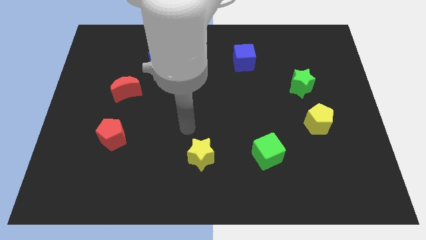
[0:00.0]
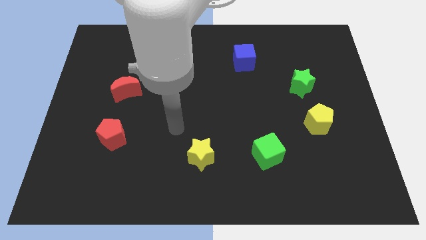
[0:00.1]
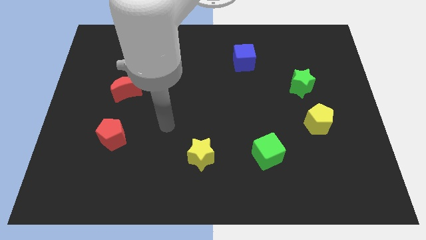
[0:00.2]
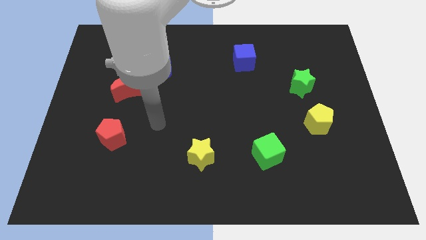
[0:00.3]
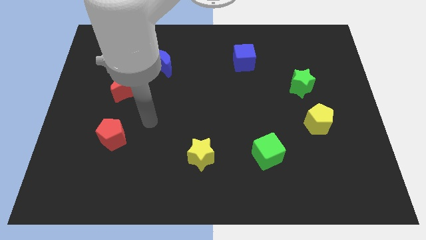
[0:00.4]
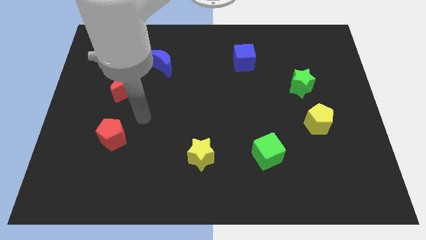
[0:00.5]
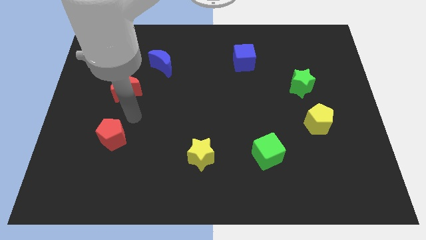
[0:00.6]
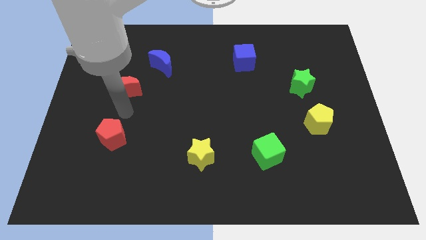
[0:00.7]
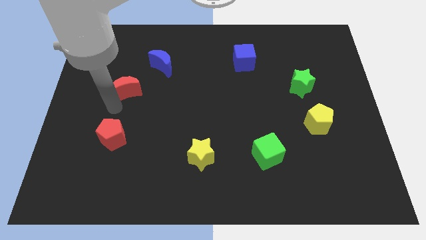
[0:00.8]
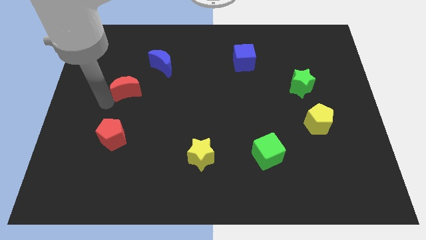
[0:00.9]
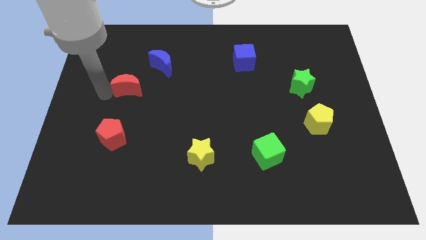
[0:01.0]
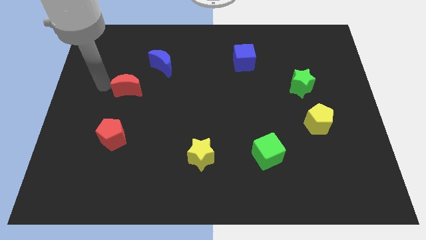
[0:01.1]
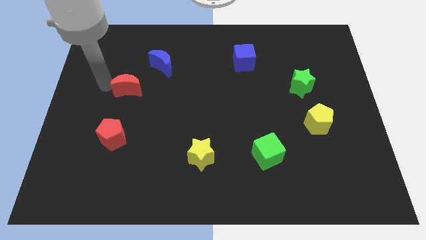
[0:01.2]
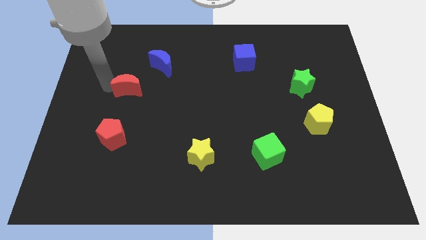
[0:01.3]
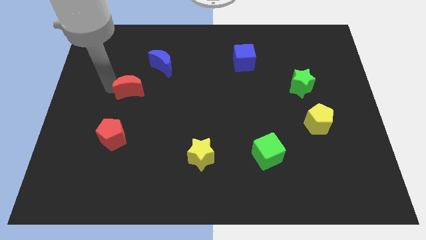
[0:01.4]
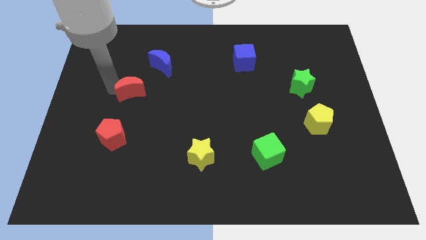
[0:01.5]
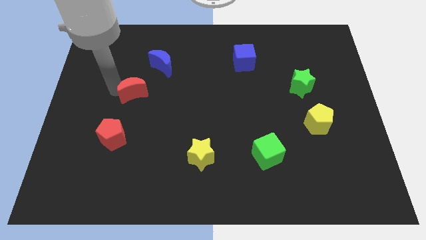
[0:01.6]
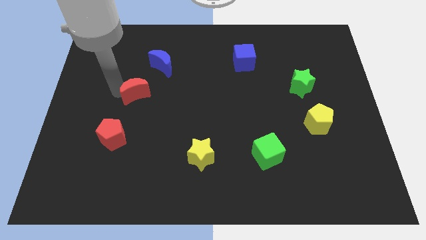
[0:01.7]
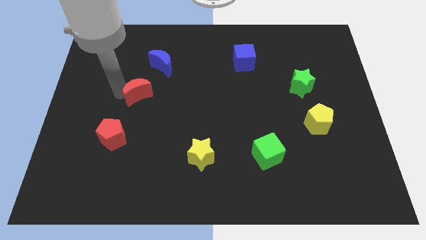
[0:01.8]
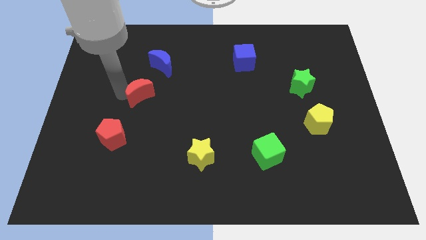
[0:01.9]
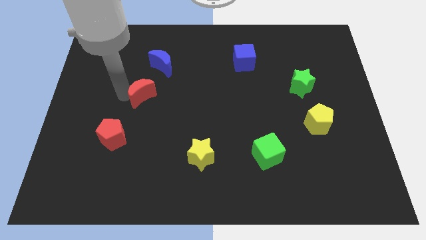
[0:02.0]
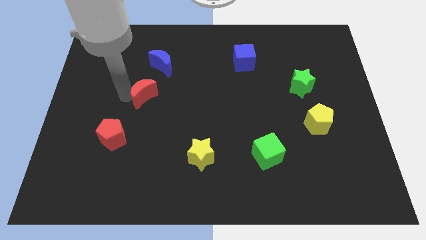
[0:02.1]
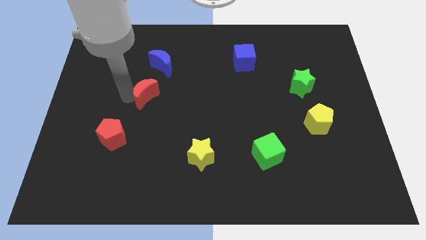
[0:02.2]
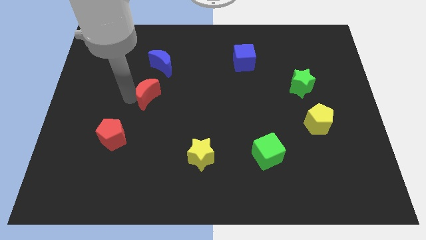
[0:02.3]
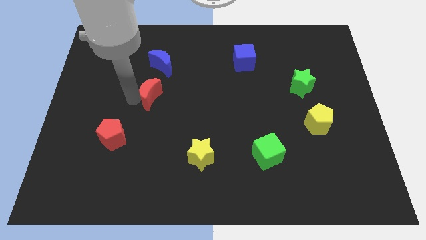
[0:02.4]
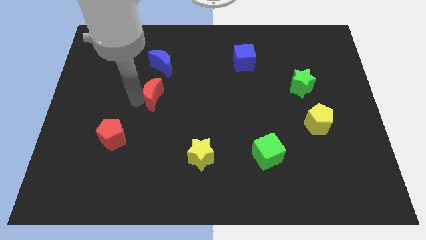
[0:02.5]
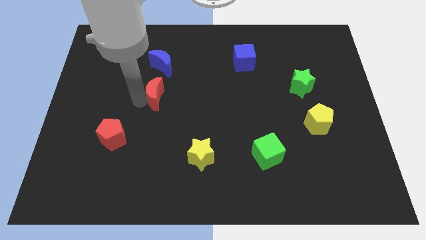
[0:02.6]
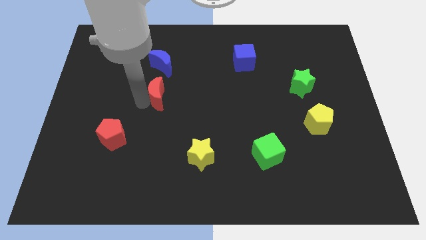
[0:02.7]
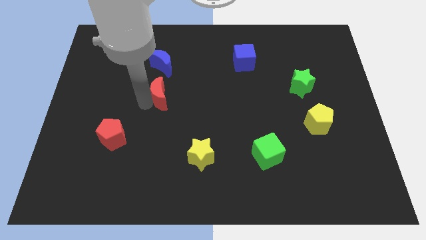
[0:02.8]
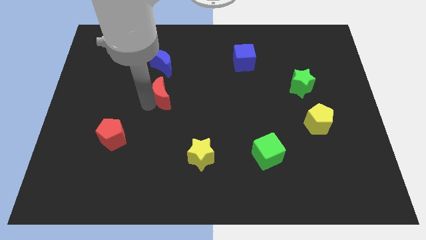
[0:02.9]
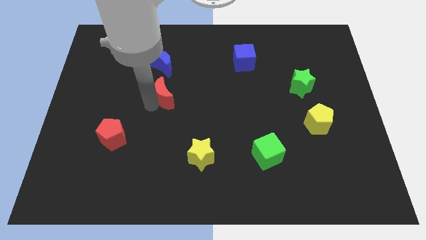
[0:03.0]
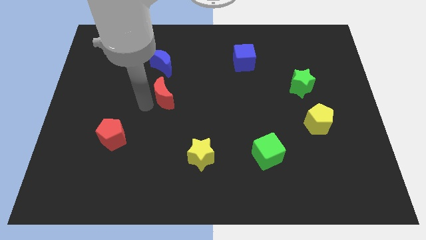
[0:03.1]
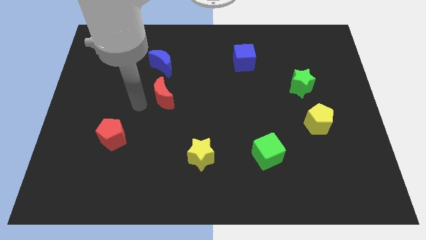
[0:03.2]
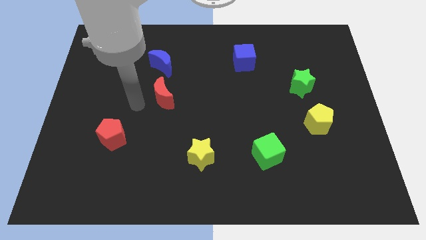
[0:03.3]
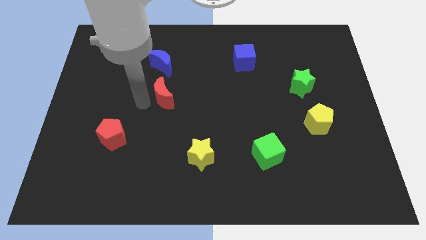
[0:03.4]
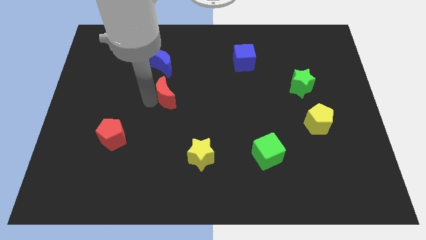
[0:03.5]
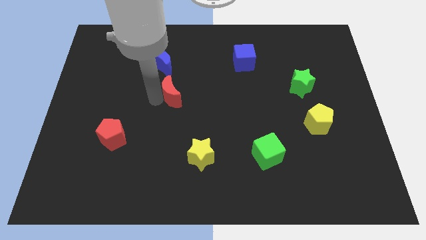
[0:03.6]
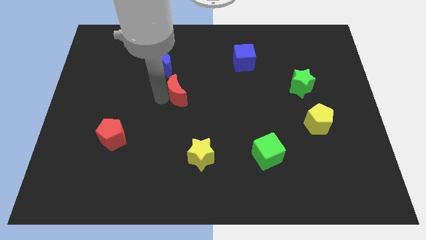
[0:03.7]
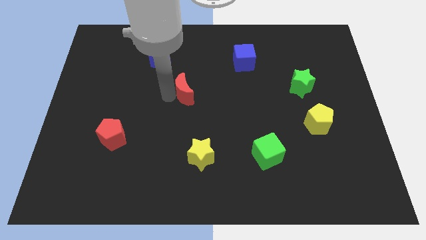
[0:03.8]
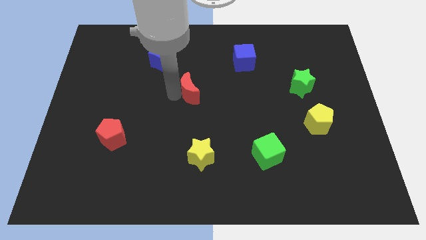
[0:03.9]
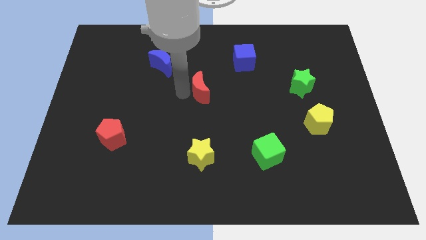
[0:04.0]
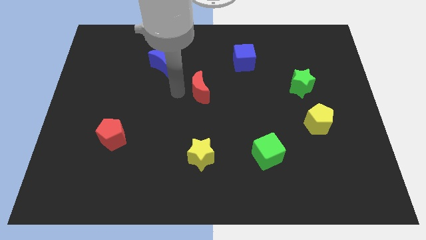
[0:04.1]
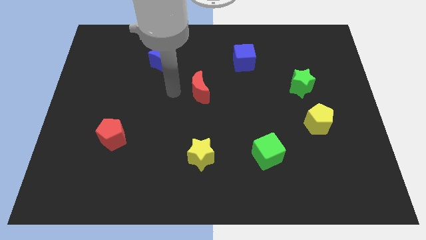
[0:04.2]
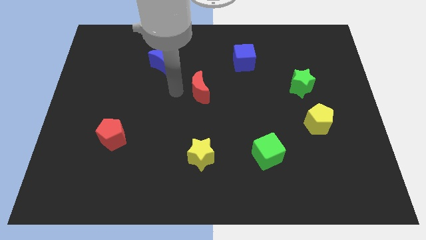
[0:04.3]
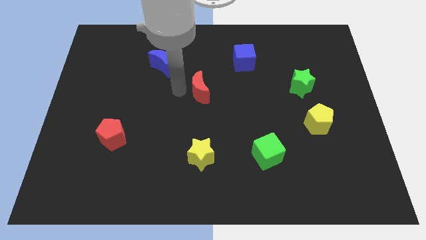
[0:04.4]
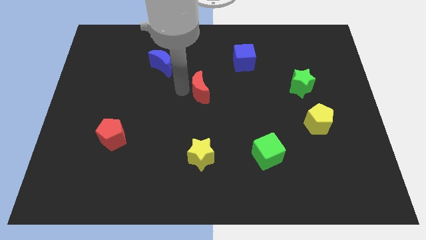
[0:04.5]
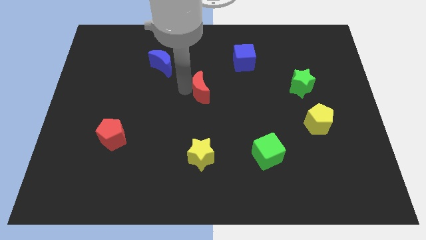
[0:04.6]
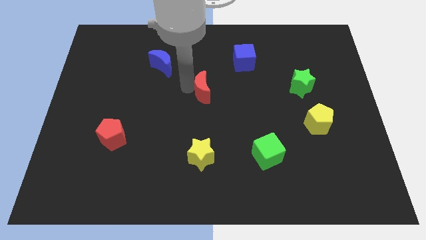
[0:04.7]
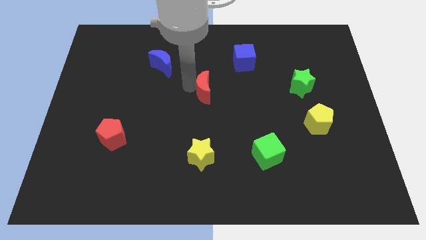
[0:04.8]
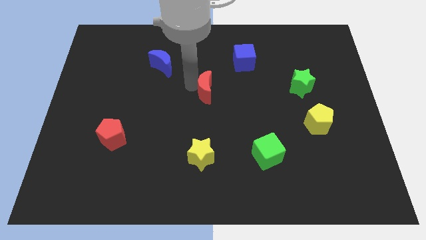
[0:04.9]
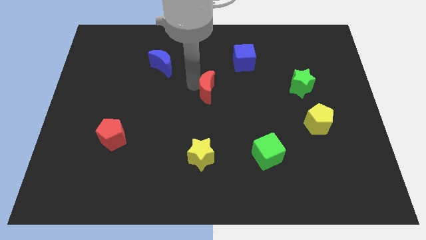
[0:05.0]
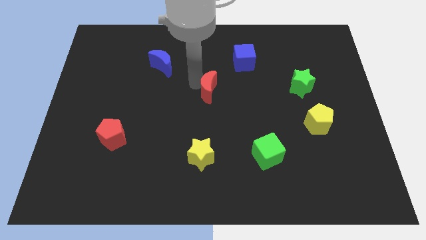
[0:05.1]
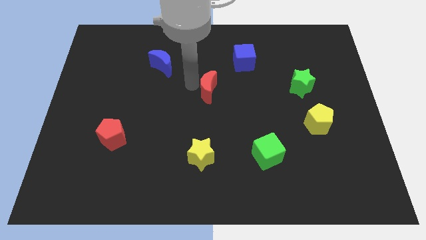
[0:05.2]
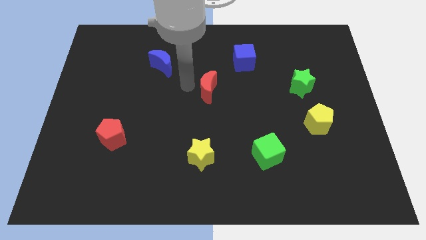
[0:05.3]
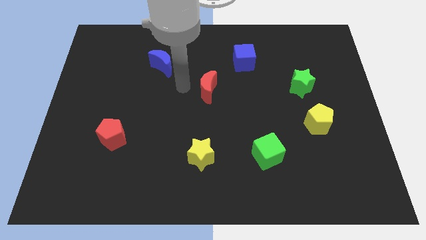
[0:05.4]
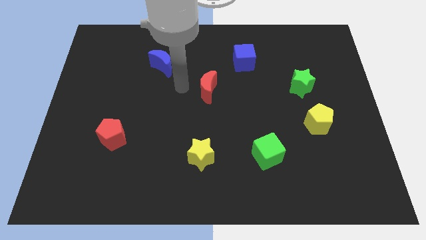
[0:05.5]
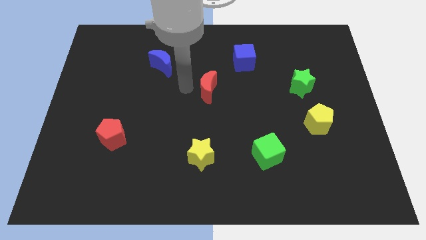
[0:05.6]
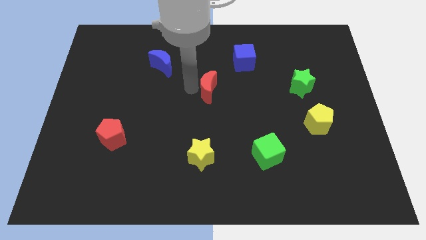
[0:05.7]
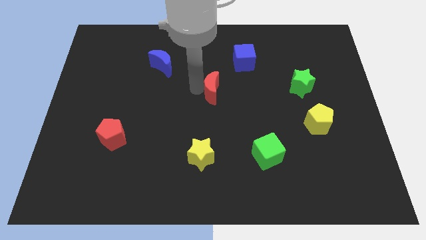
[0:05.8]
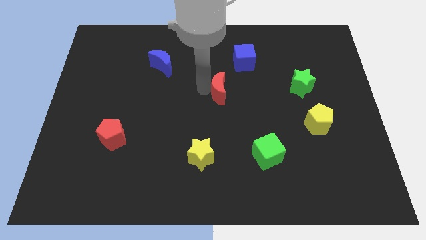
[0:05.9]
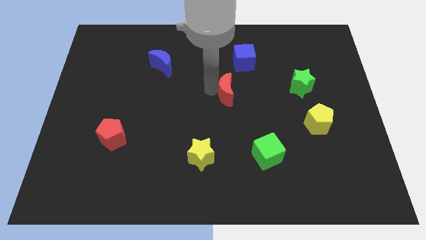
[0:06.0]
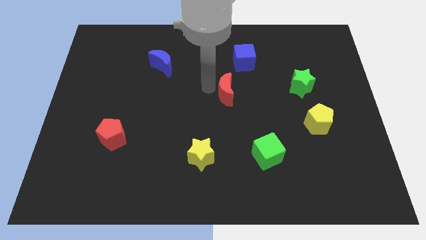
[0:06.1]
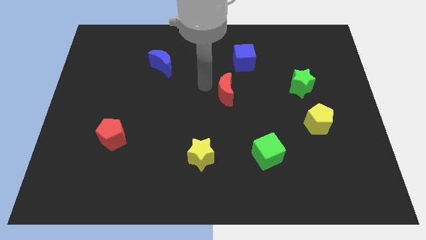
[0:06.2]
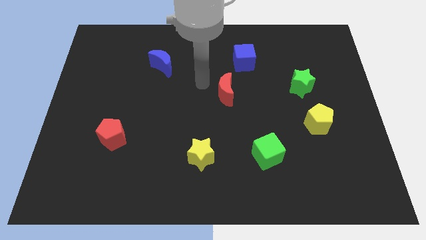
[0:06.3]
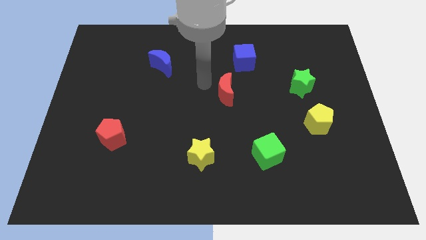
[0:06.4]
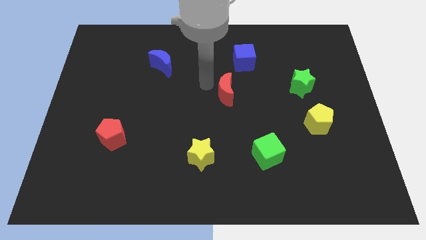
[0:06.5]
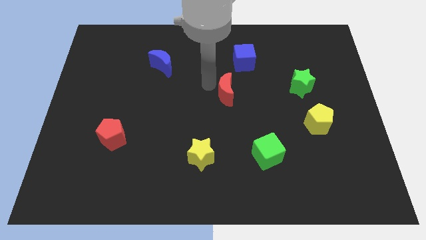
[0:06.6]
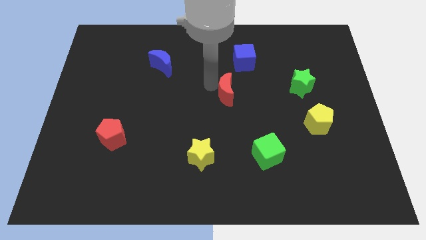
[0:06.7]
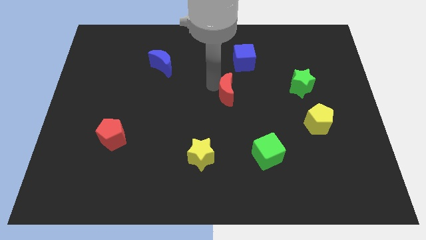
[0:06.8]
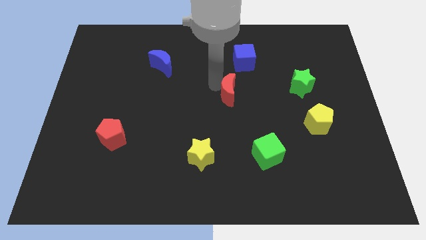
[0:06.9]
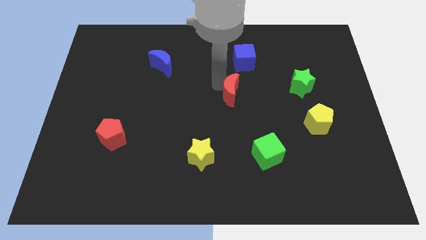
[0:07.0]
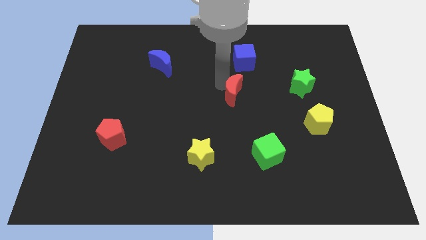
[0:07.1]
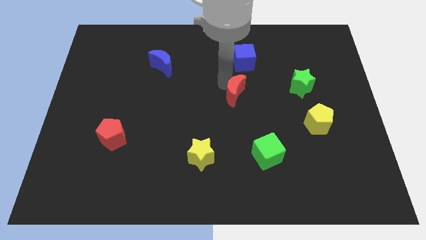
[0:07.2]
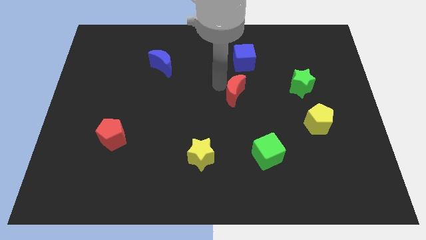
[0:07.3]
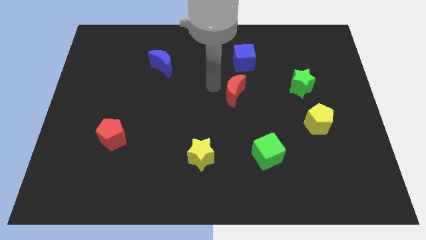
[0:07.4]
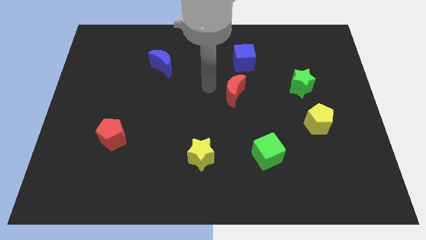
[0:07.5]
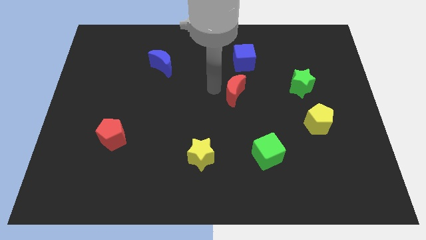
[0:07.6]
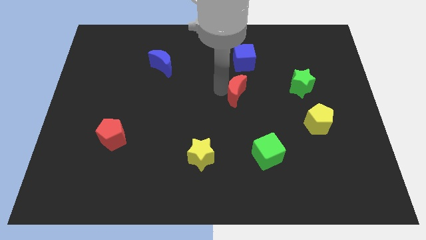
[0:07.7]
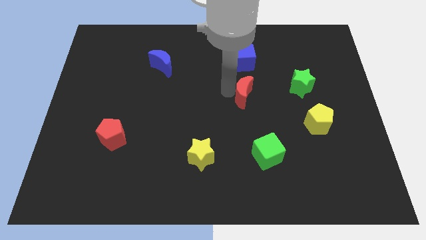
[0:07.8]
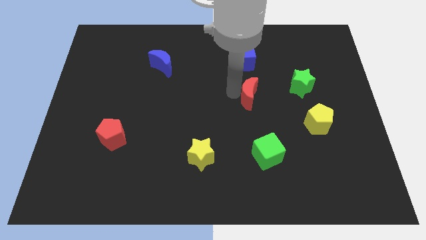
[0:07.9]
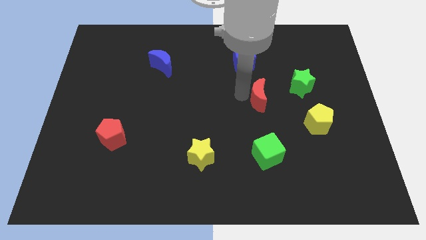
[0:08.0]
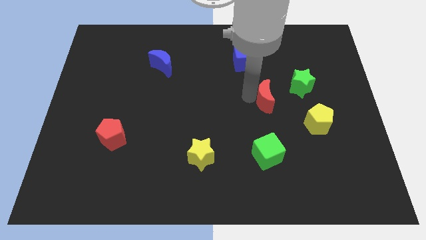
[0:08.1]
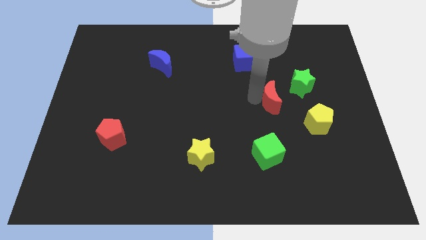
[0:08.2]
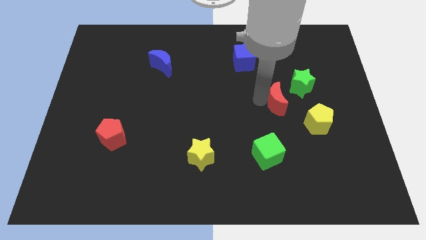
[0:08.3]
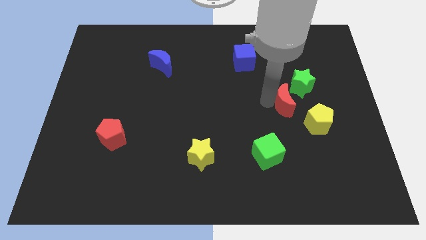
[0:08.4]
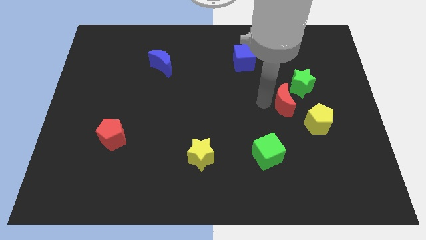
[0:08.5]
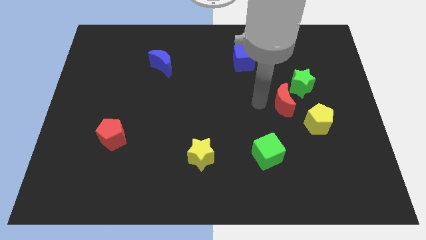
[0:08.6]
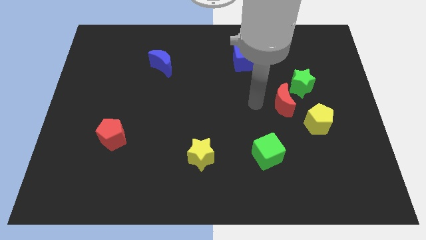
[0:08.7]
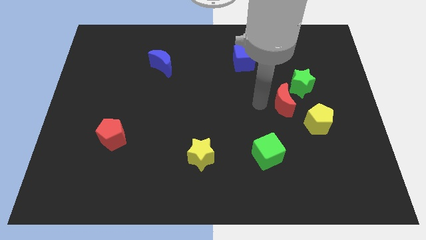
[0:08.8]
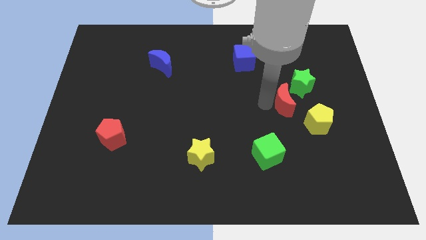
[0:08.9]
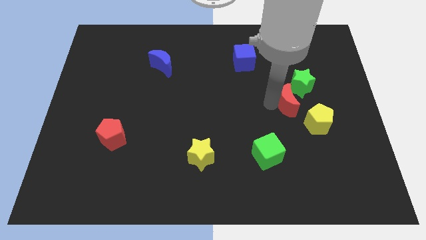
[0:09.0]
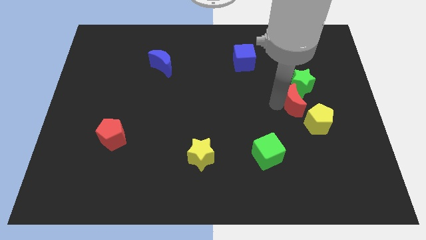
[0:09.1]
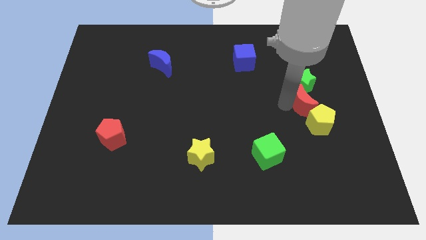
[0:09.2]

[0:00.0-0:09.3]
move the red moon diagonally down and to the right of the green star
